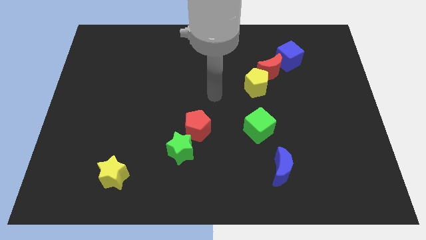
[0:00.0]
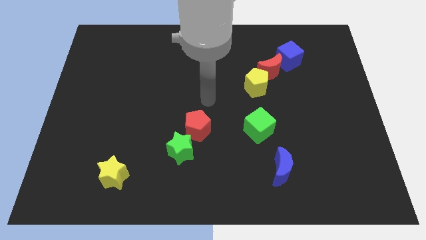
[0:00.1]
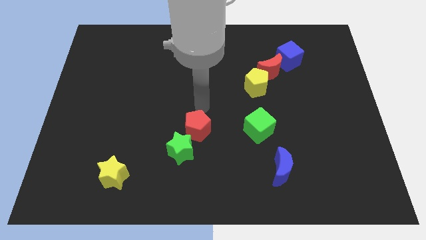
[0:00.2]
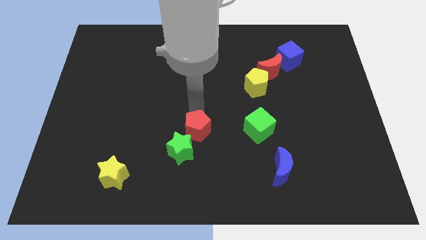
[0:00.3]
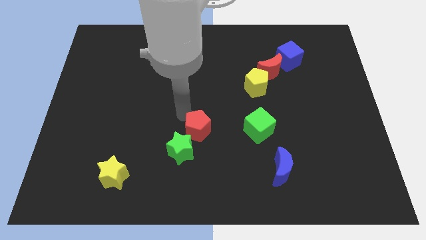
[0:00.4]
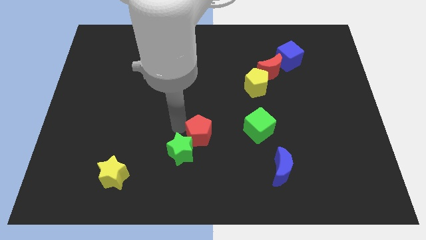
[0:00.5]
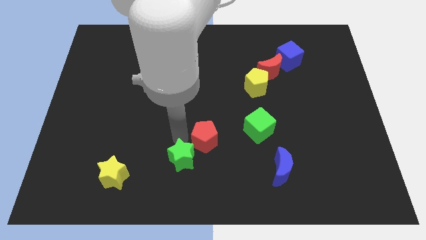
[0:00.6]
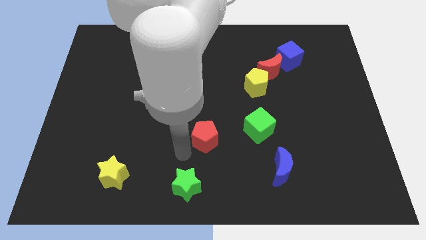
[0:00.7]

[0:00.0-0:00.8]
separate the red pentagon from the green star

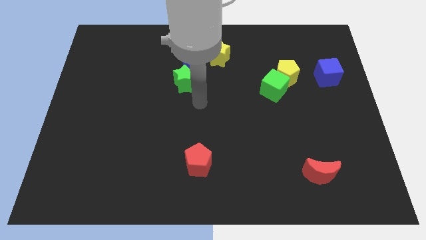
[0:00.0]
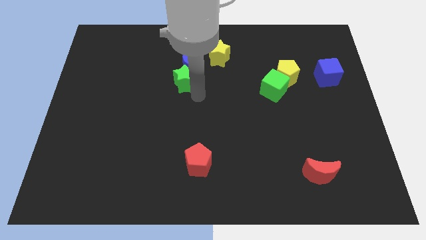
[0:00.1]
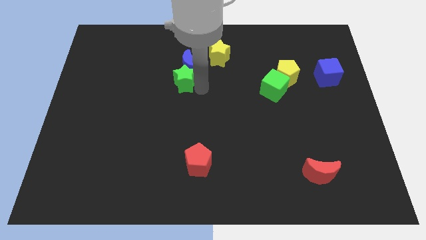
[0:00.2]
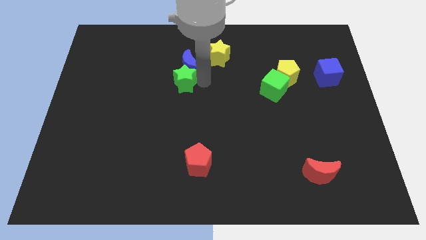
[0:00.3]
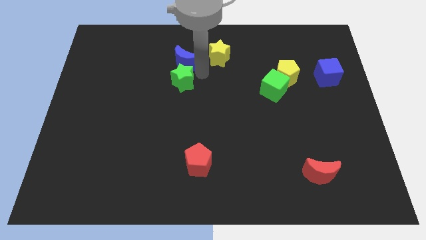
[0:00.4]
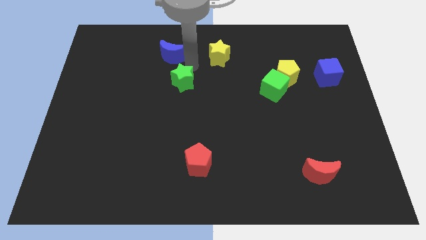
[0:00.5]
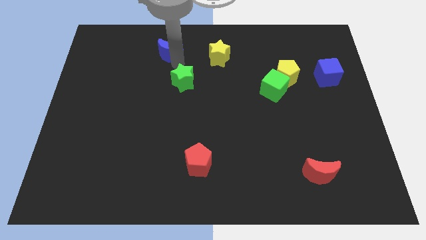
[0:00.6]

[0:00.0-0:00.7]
separate the green star from the blue moon

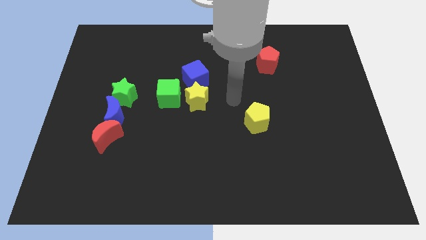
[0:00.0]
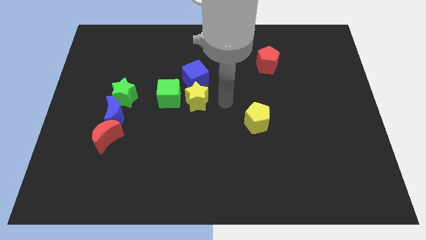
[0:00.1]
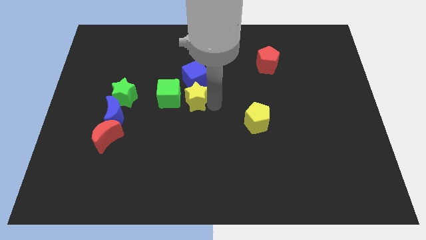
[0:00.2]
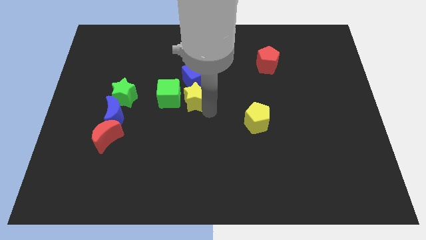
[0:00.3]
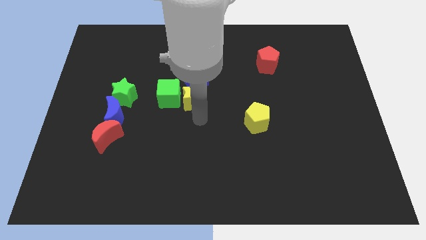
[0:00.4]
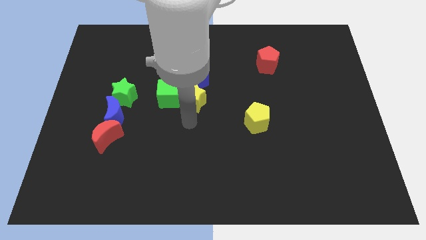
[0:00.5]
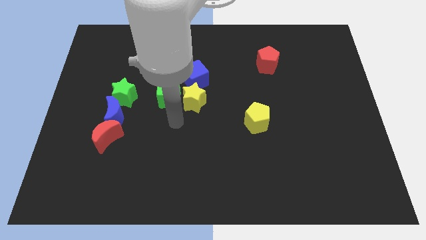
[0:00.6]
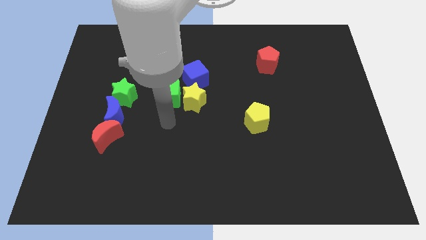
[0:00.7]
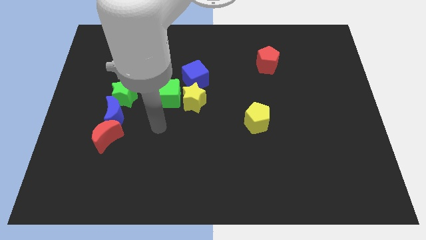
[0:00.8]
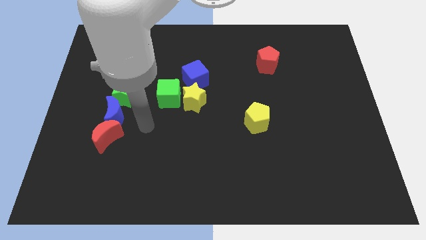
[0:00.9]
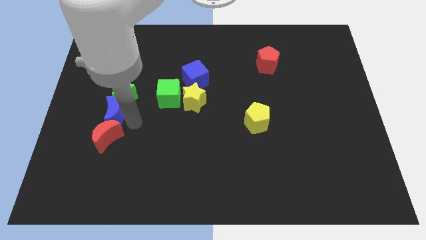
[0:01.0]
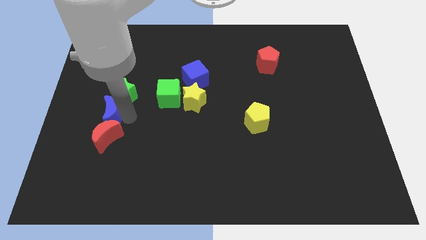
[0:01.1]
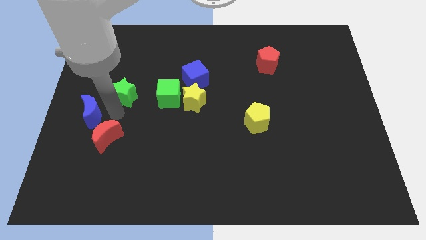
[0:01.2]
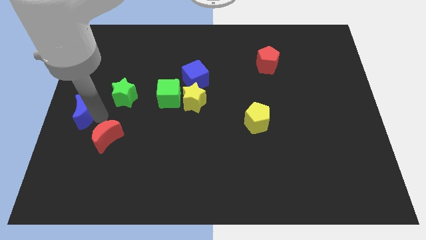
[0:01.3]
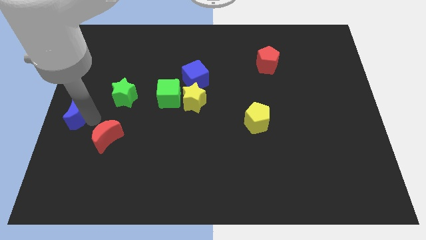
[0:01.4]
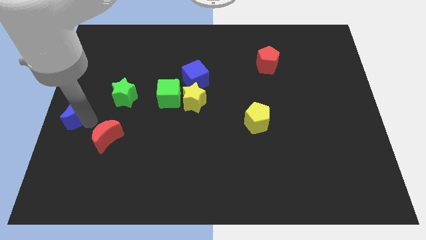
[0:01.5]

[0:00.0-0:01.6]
move the red moon away from the blue moon

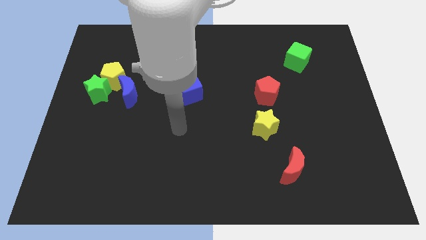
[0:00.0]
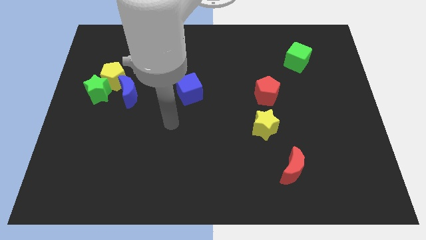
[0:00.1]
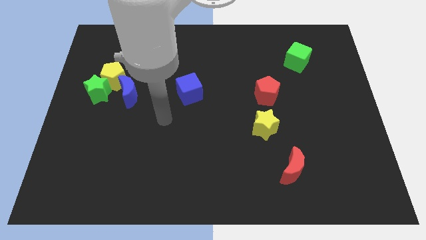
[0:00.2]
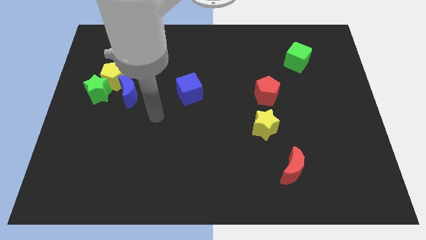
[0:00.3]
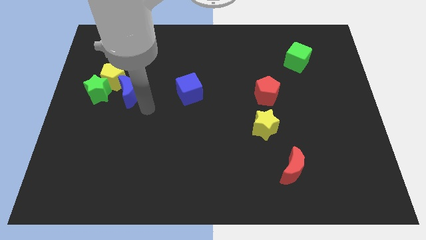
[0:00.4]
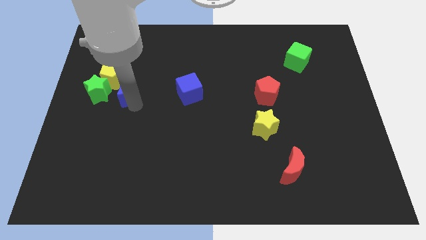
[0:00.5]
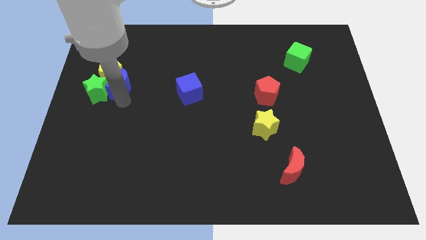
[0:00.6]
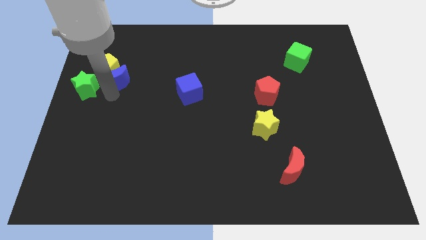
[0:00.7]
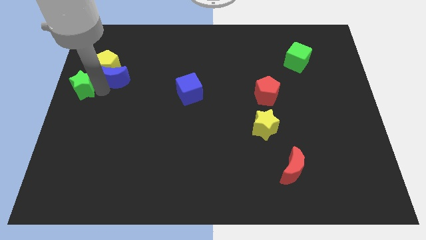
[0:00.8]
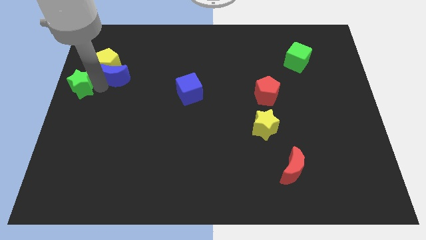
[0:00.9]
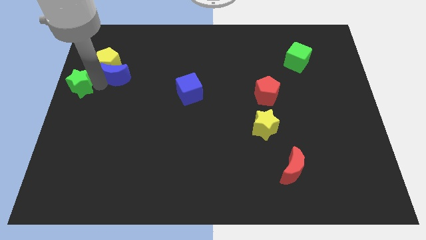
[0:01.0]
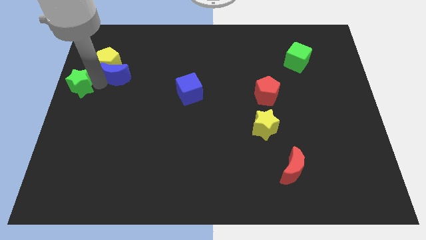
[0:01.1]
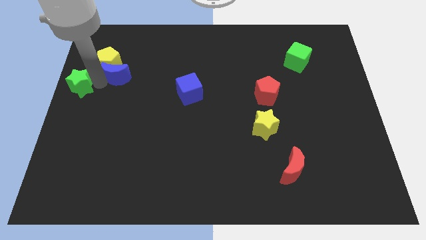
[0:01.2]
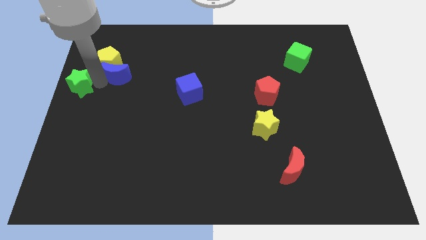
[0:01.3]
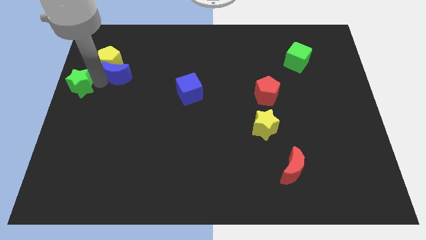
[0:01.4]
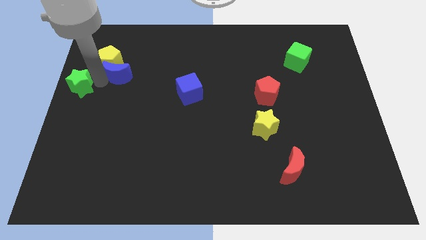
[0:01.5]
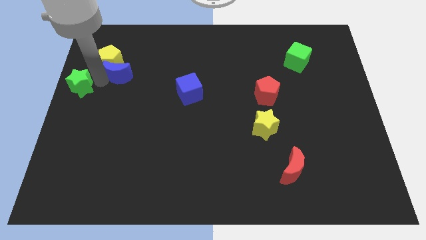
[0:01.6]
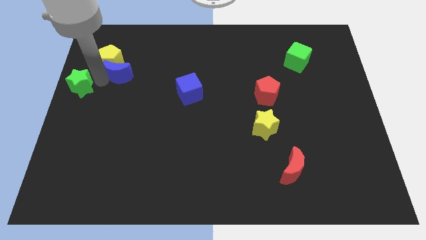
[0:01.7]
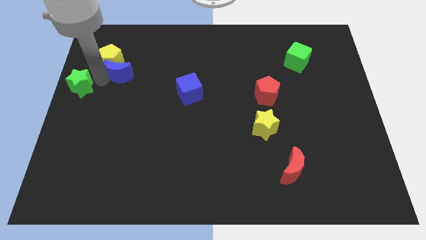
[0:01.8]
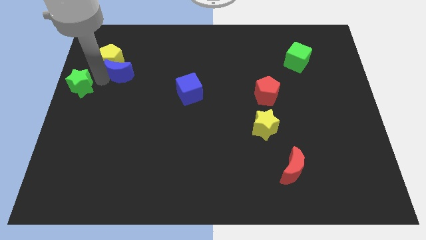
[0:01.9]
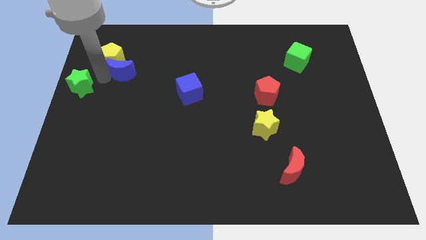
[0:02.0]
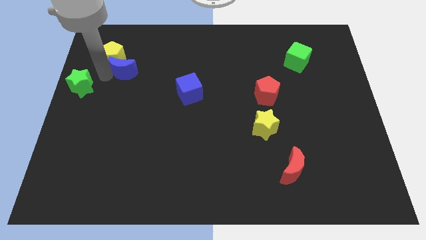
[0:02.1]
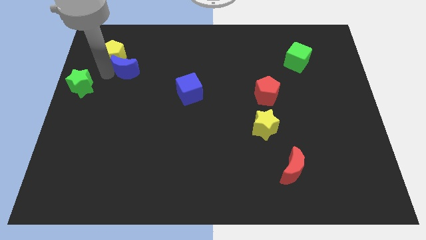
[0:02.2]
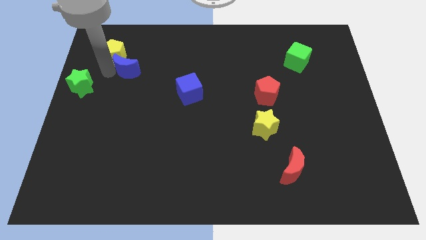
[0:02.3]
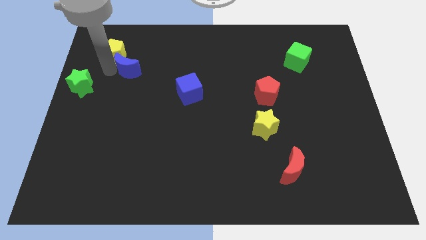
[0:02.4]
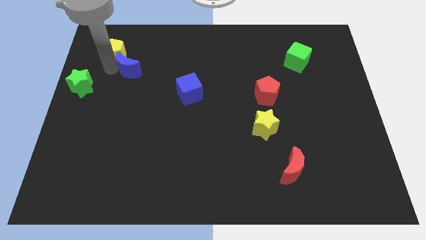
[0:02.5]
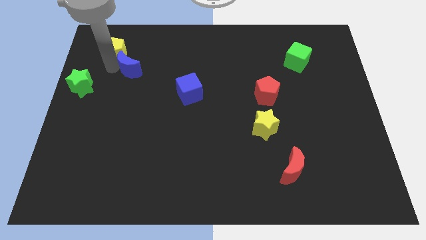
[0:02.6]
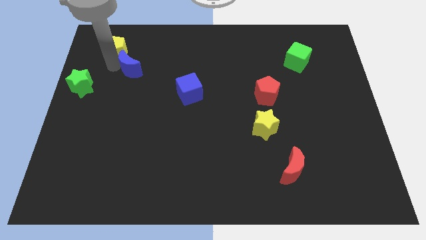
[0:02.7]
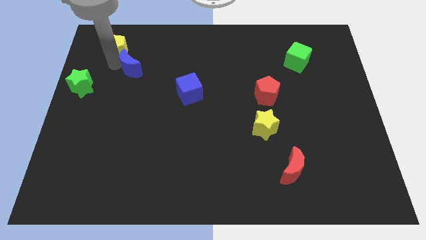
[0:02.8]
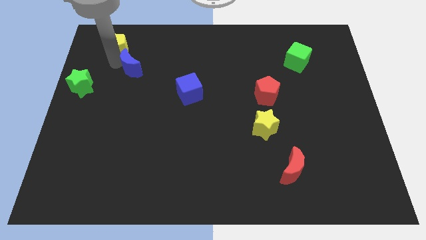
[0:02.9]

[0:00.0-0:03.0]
pull the yellow pentagon apart from the green star and blue moon

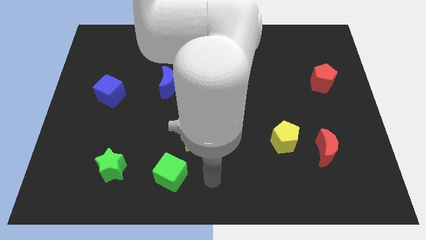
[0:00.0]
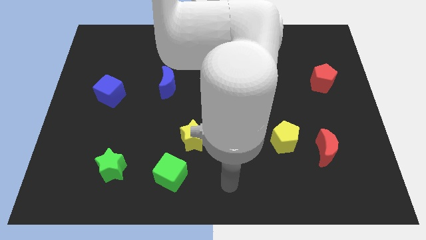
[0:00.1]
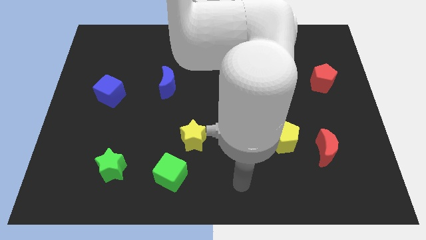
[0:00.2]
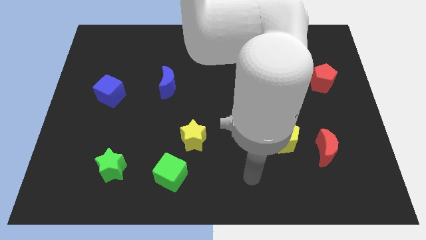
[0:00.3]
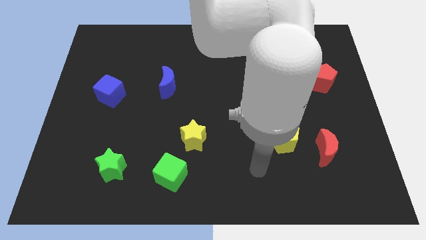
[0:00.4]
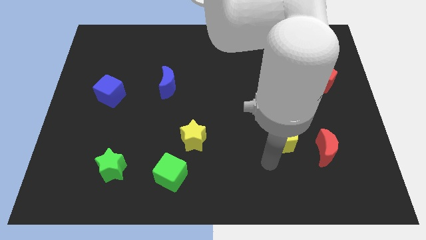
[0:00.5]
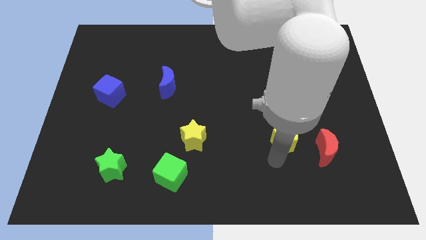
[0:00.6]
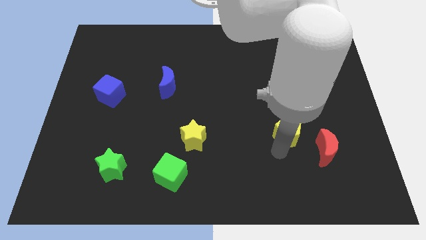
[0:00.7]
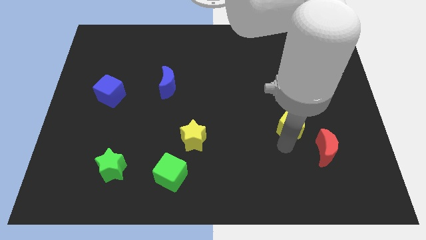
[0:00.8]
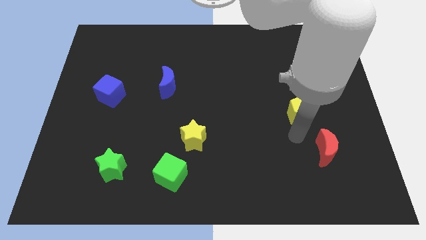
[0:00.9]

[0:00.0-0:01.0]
pull the red moon apart from the yellow pentagon

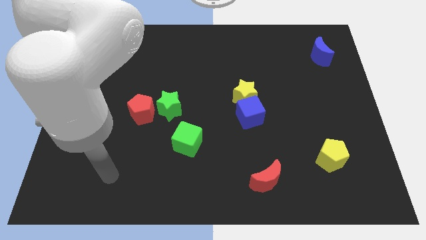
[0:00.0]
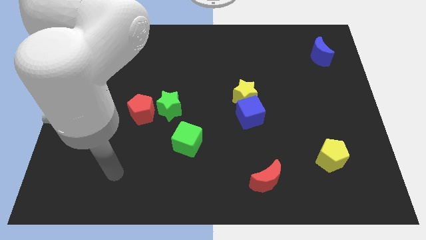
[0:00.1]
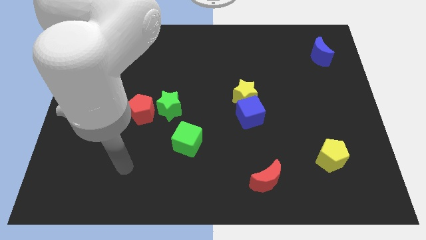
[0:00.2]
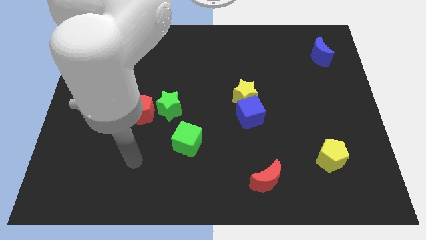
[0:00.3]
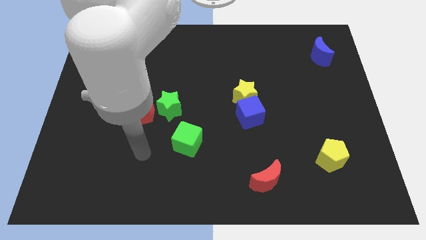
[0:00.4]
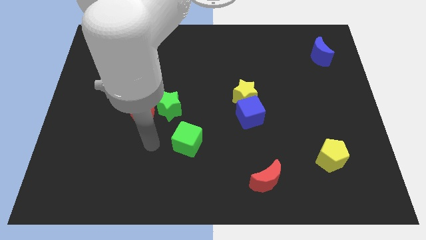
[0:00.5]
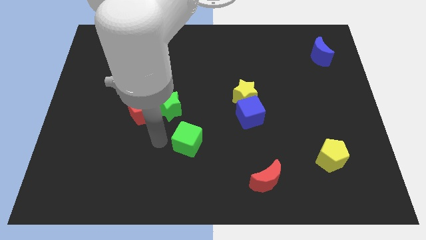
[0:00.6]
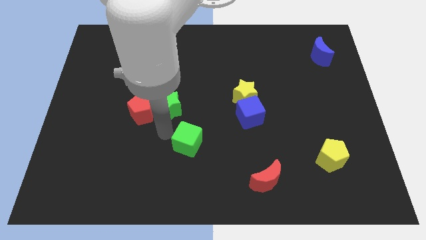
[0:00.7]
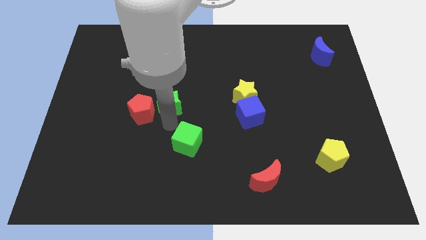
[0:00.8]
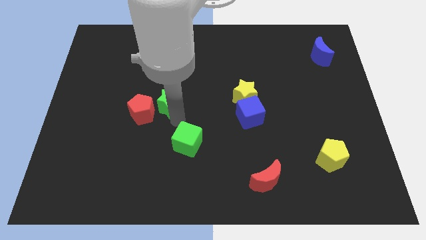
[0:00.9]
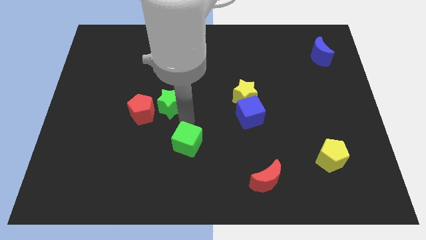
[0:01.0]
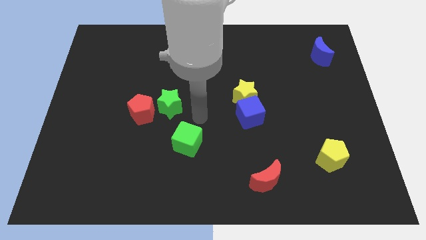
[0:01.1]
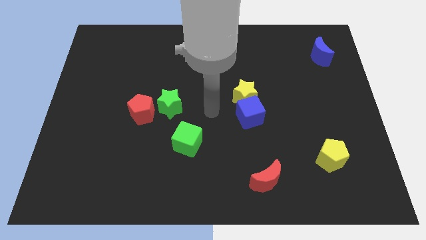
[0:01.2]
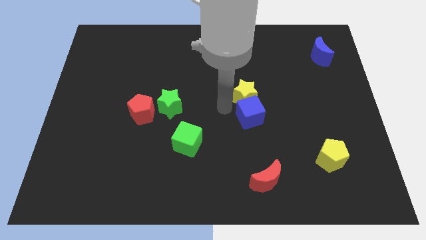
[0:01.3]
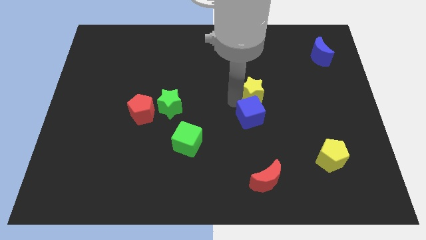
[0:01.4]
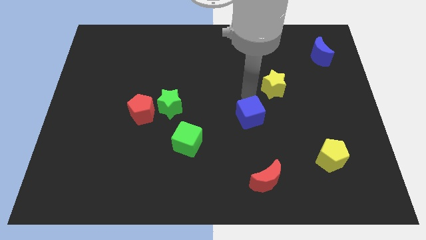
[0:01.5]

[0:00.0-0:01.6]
separate the blue cube from the yellow star

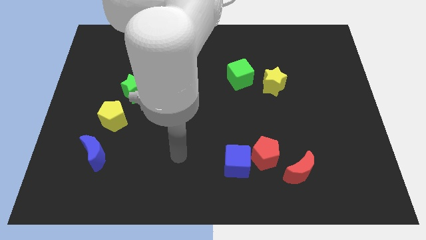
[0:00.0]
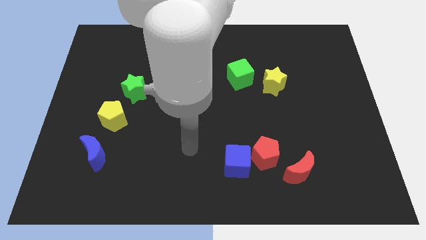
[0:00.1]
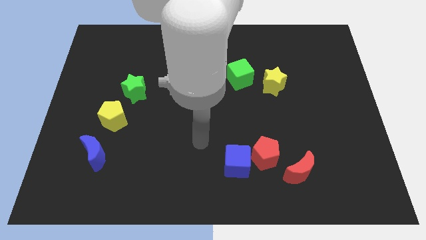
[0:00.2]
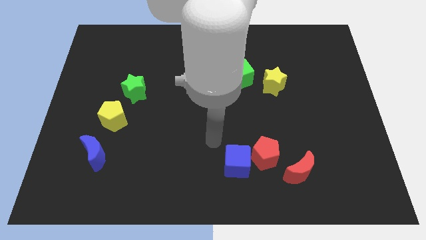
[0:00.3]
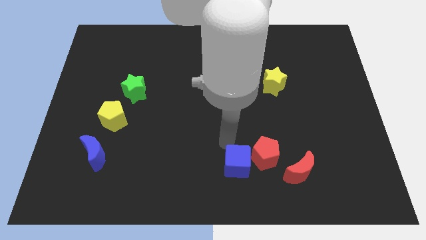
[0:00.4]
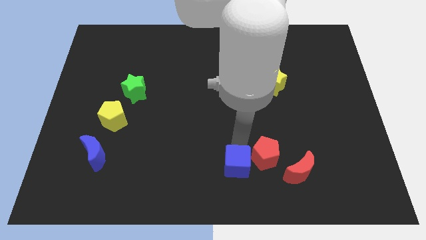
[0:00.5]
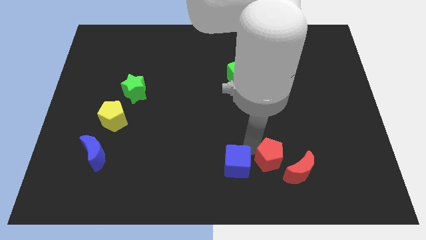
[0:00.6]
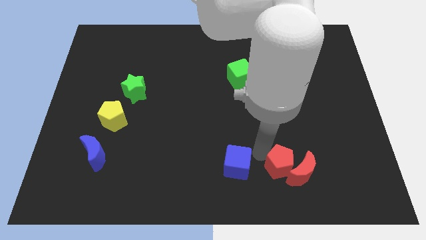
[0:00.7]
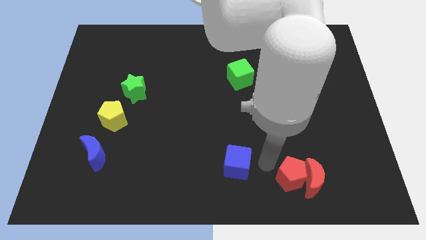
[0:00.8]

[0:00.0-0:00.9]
separate the blue cube from the red pentagon
